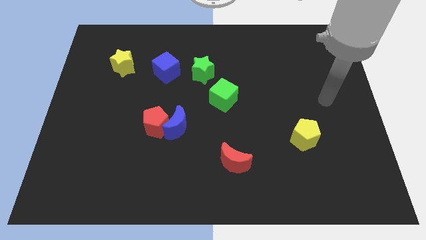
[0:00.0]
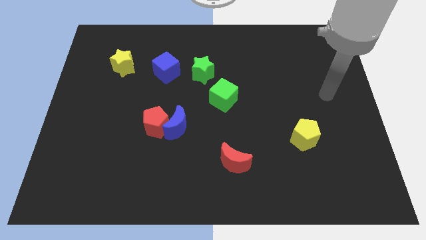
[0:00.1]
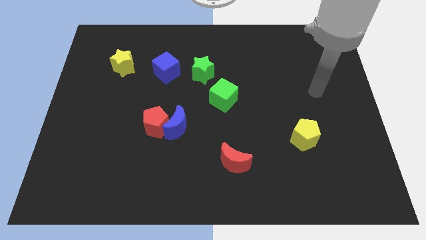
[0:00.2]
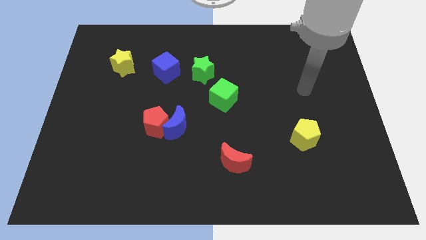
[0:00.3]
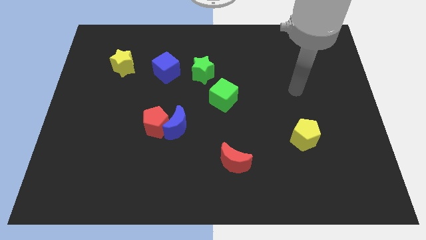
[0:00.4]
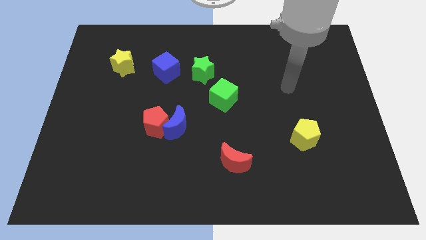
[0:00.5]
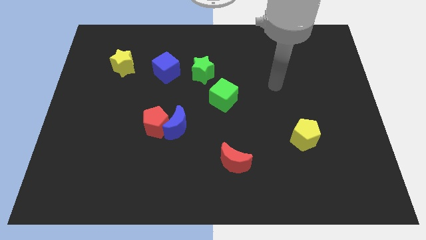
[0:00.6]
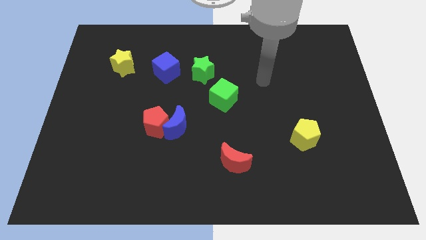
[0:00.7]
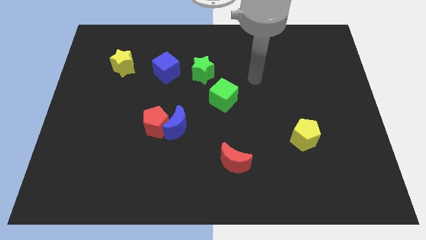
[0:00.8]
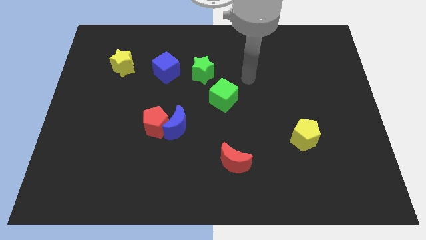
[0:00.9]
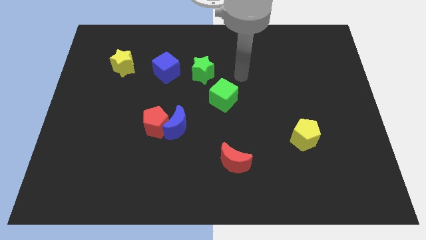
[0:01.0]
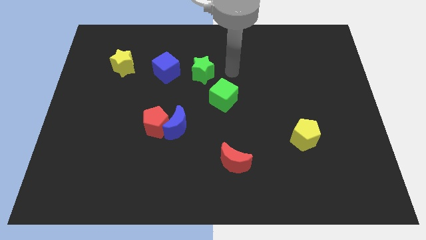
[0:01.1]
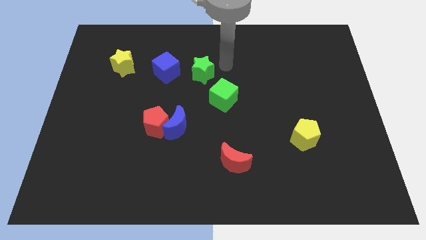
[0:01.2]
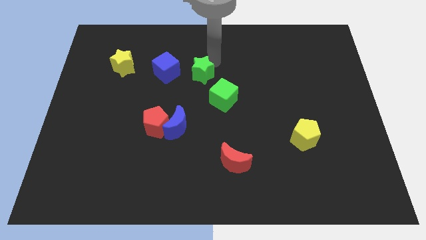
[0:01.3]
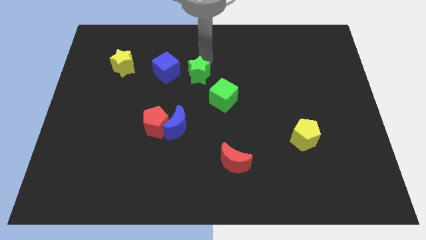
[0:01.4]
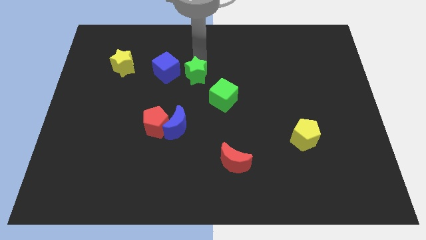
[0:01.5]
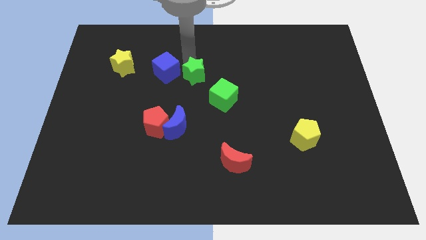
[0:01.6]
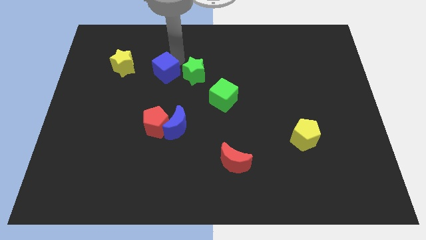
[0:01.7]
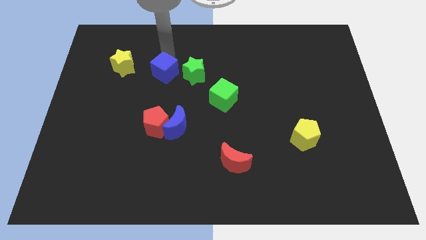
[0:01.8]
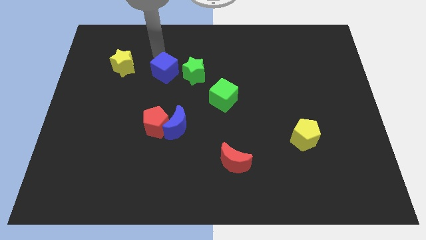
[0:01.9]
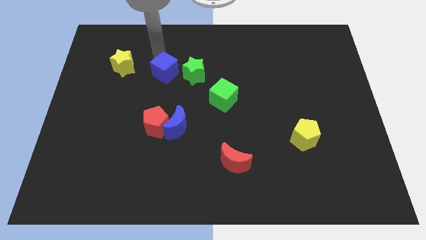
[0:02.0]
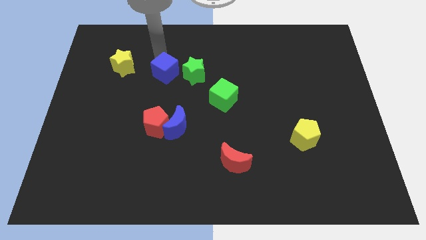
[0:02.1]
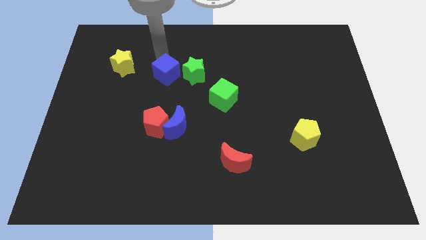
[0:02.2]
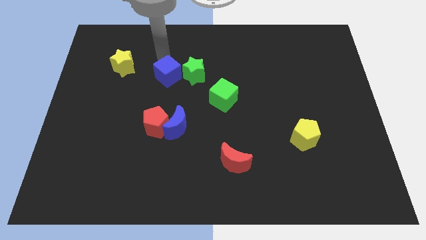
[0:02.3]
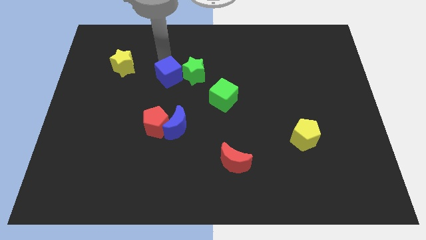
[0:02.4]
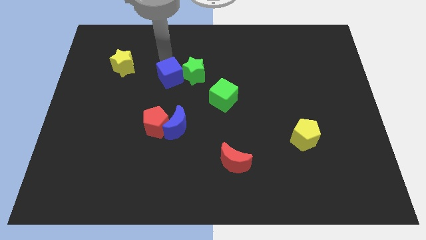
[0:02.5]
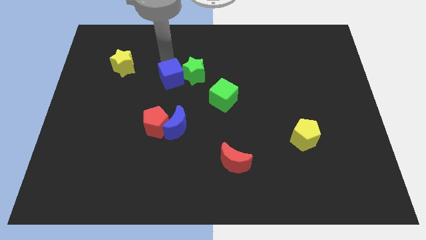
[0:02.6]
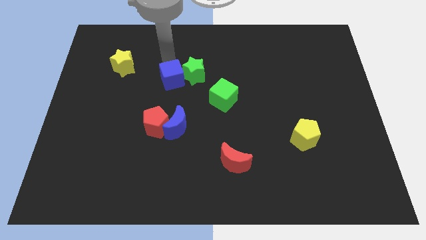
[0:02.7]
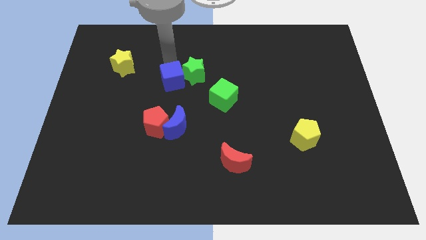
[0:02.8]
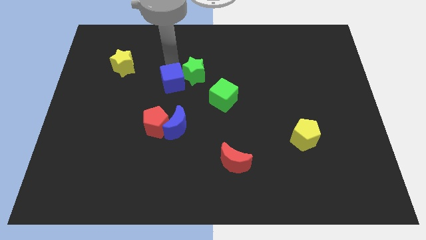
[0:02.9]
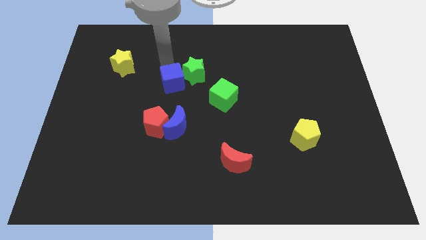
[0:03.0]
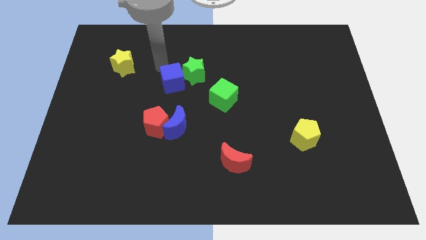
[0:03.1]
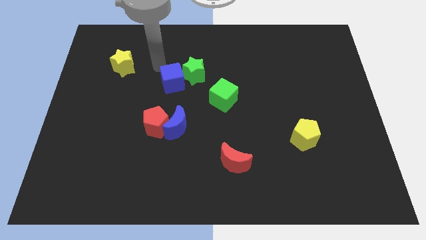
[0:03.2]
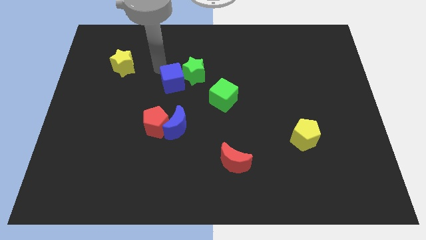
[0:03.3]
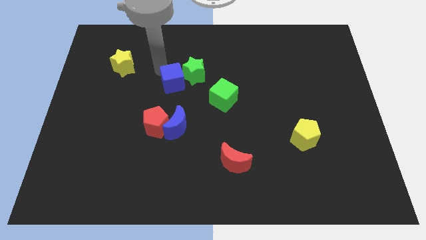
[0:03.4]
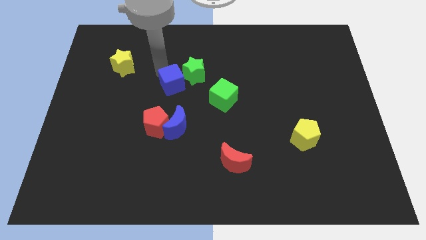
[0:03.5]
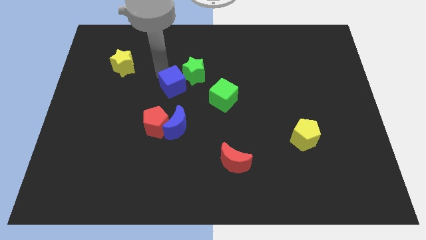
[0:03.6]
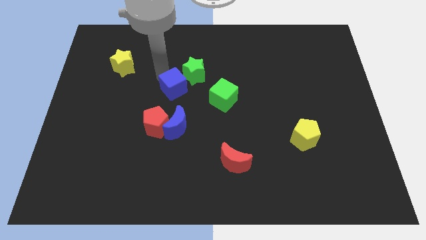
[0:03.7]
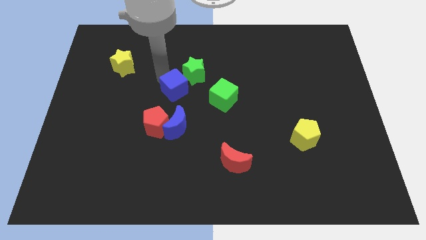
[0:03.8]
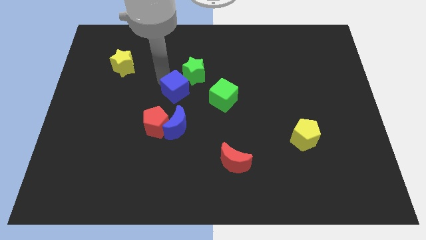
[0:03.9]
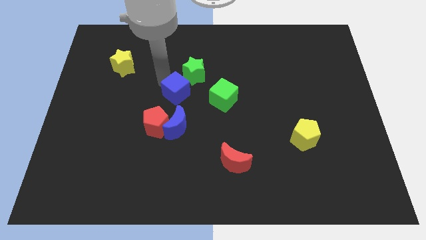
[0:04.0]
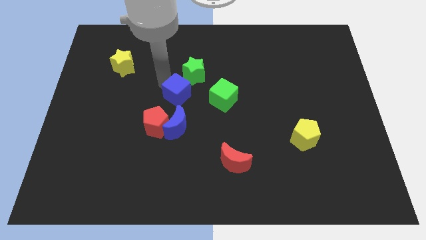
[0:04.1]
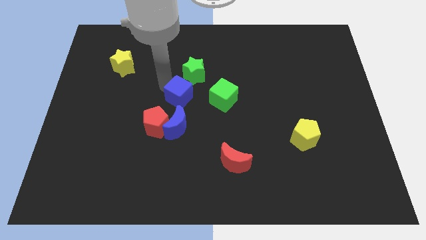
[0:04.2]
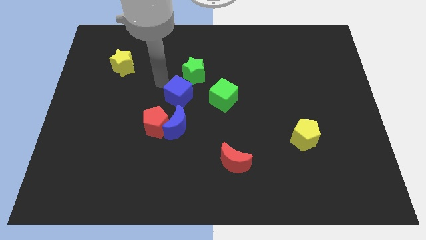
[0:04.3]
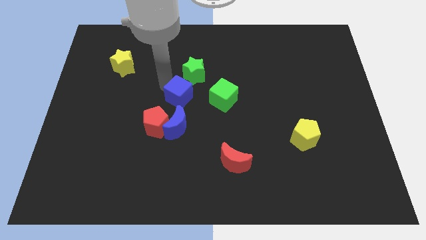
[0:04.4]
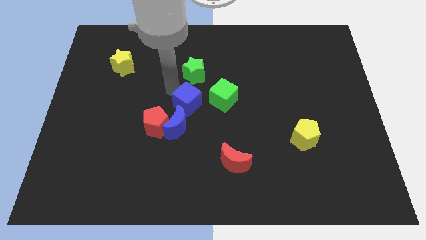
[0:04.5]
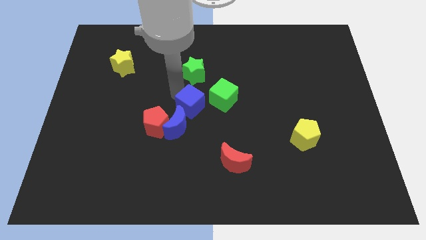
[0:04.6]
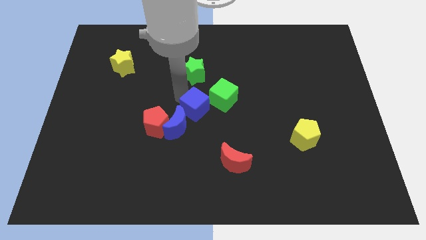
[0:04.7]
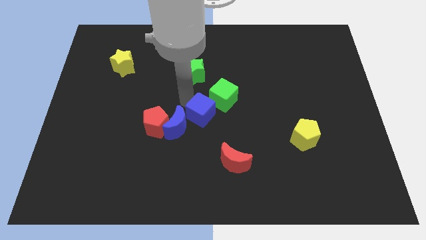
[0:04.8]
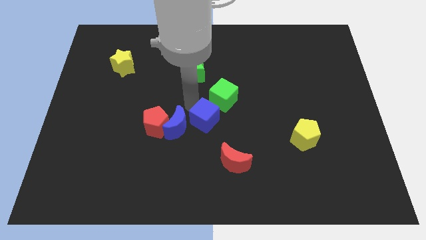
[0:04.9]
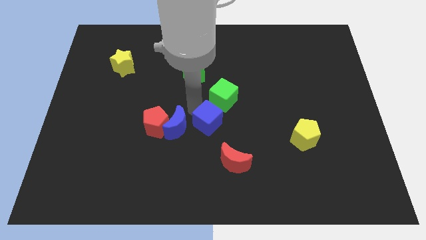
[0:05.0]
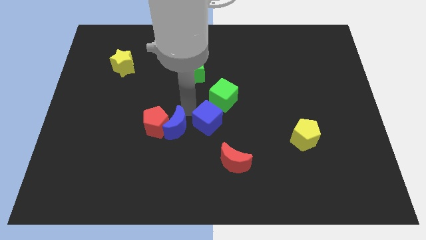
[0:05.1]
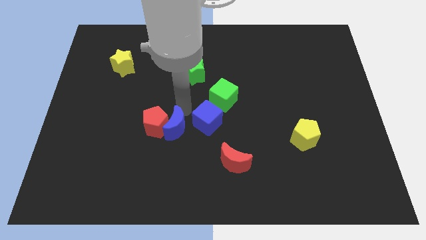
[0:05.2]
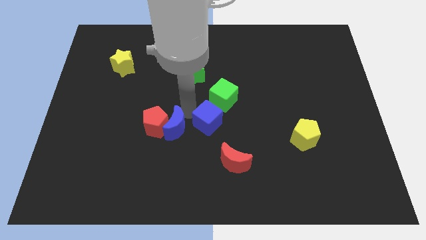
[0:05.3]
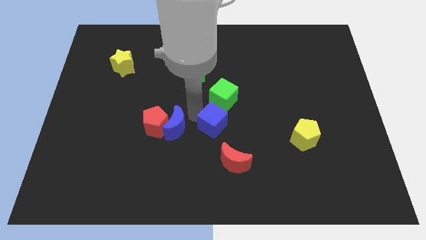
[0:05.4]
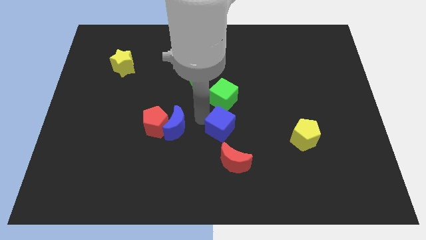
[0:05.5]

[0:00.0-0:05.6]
slide the blue cube downwards and right diagonally

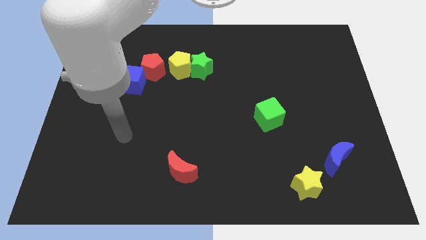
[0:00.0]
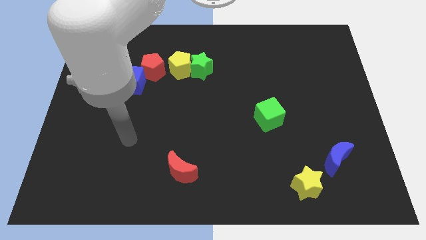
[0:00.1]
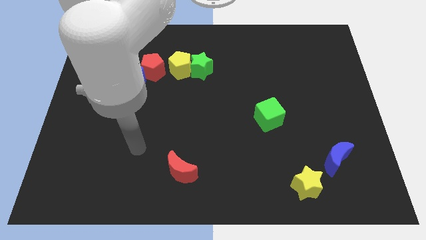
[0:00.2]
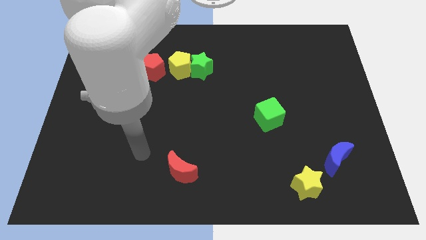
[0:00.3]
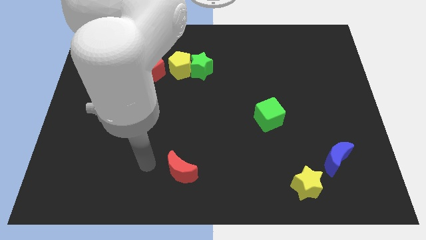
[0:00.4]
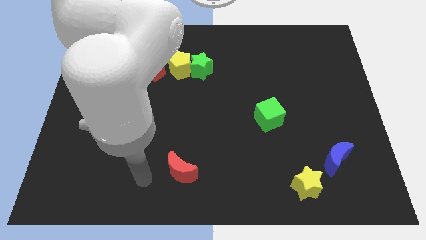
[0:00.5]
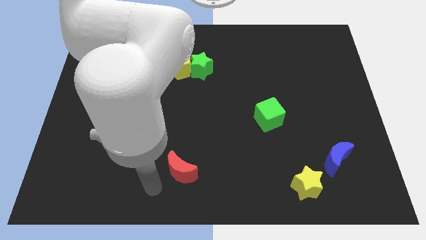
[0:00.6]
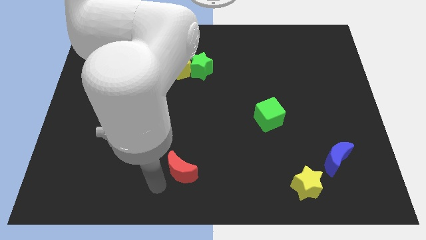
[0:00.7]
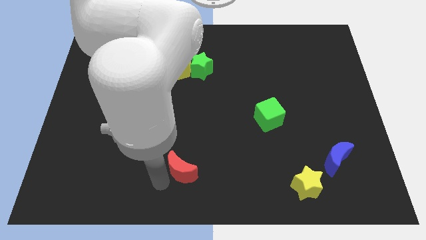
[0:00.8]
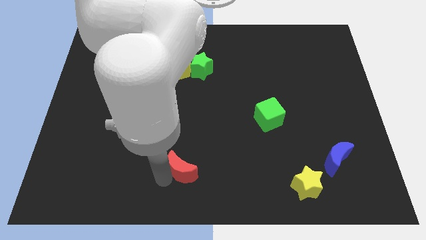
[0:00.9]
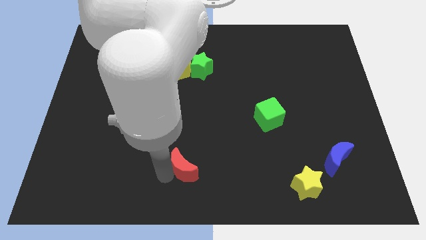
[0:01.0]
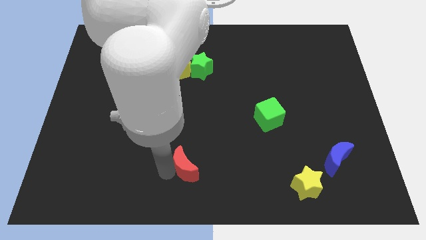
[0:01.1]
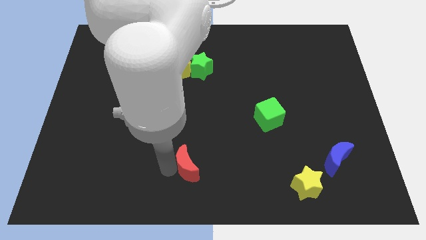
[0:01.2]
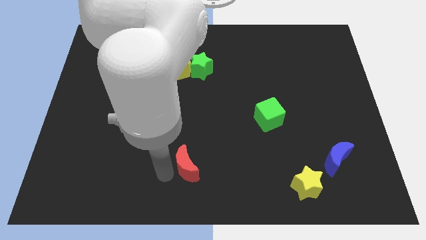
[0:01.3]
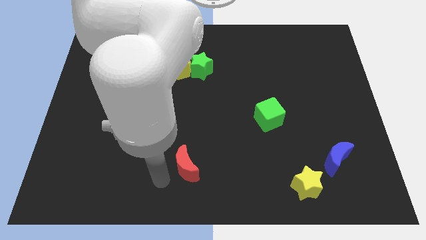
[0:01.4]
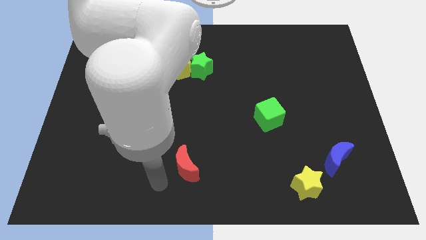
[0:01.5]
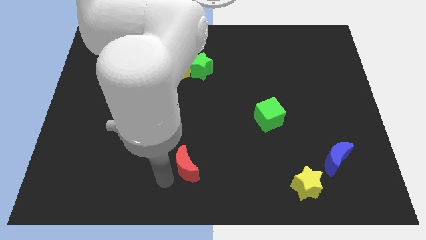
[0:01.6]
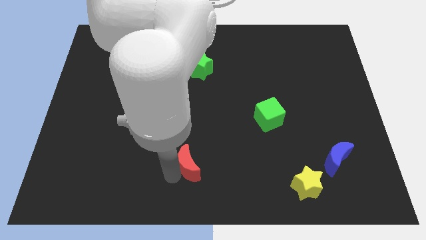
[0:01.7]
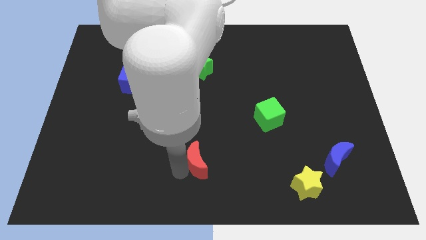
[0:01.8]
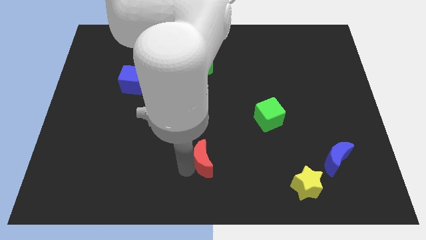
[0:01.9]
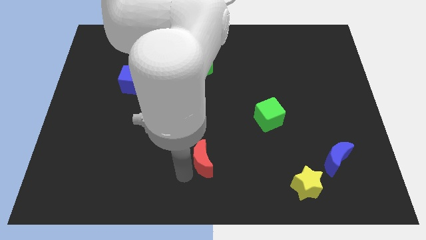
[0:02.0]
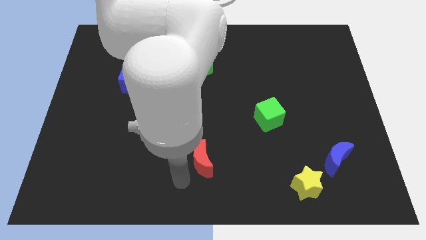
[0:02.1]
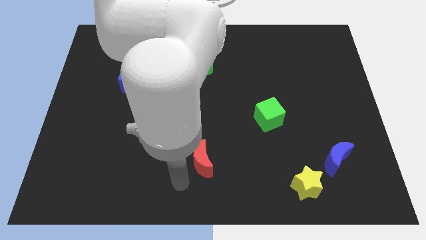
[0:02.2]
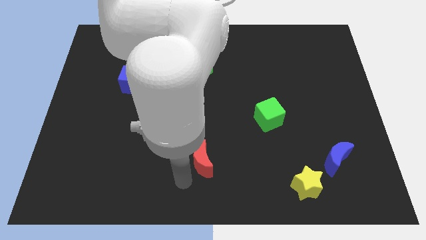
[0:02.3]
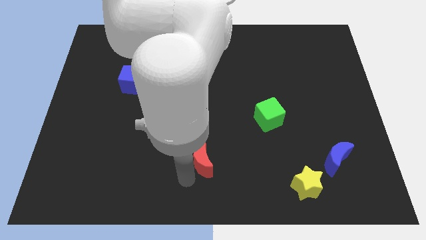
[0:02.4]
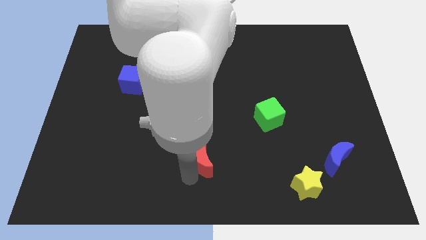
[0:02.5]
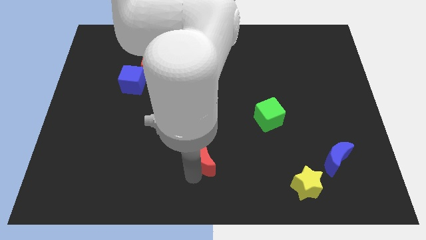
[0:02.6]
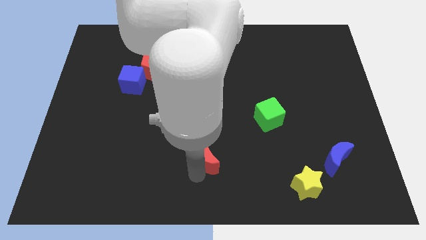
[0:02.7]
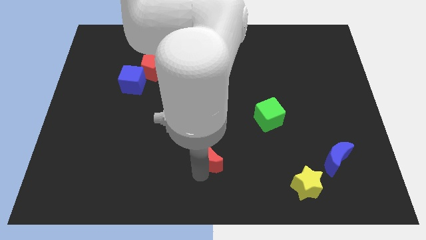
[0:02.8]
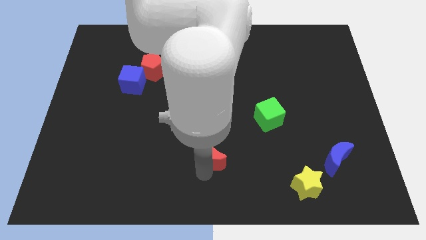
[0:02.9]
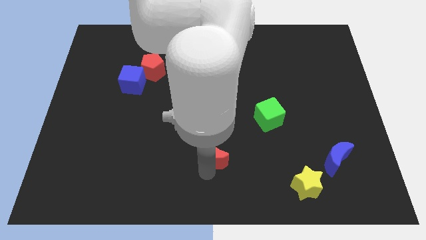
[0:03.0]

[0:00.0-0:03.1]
push the red moon diagonally up and to the right a little bit
